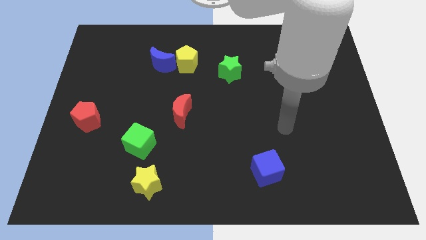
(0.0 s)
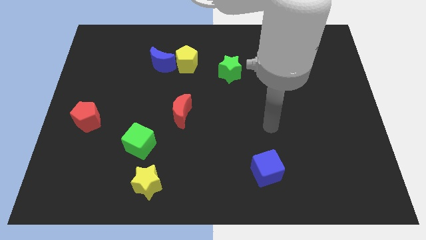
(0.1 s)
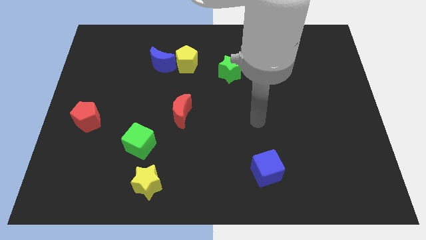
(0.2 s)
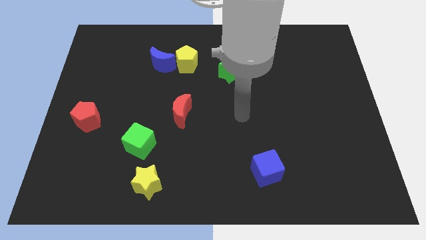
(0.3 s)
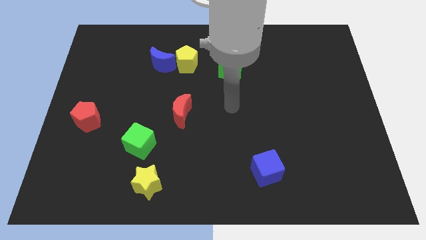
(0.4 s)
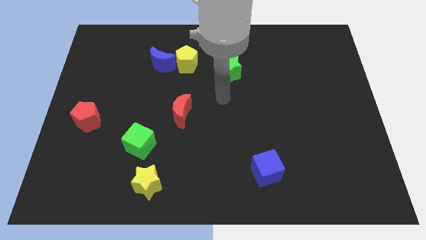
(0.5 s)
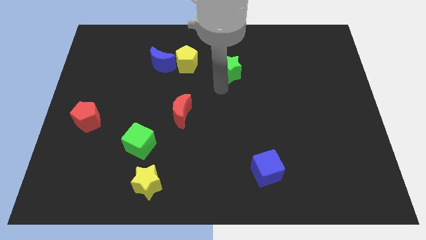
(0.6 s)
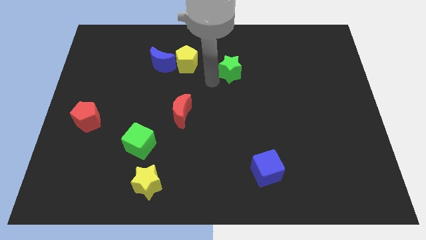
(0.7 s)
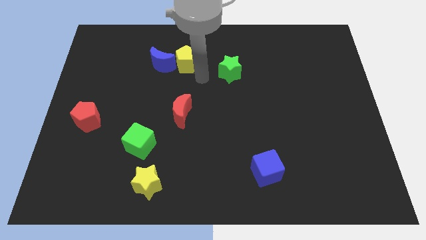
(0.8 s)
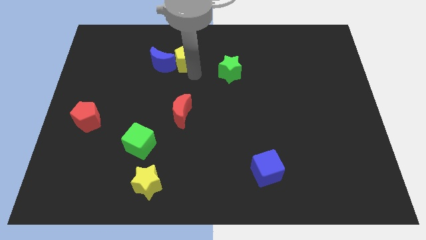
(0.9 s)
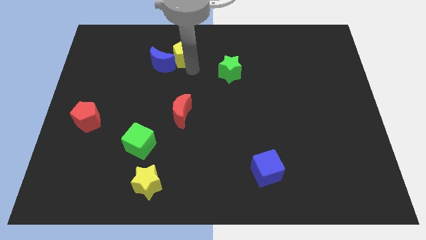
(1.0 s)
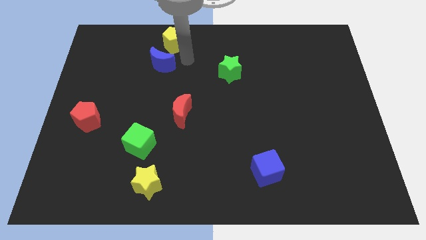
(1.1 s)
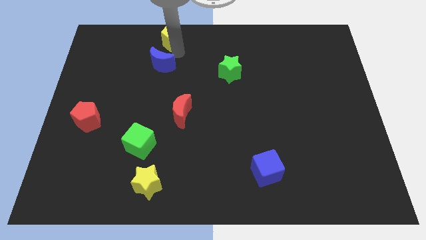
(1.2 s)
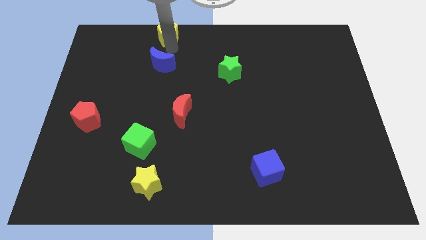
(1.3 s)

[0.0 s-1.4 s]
pull the blue moon apart from the yellow pentagon

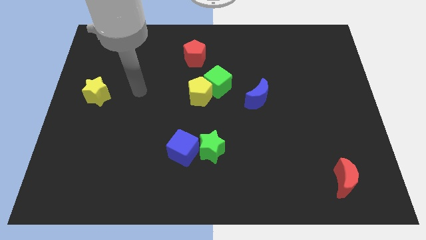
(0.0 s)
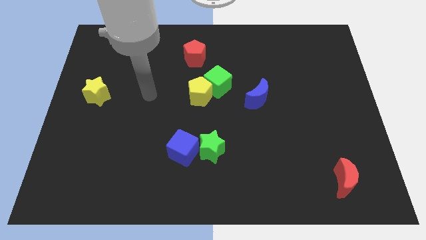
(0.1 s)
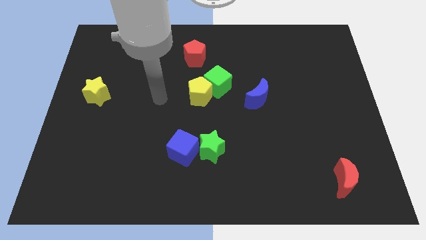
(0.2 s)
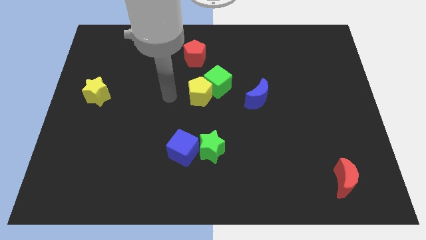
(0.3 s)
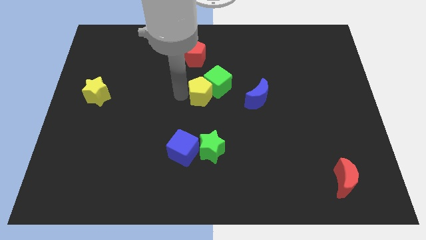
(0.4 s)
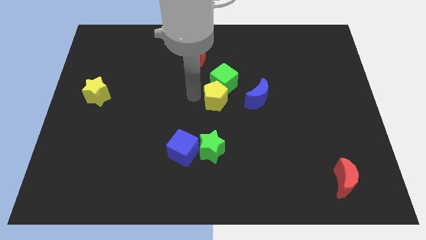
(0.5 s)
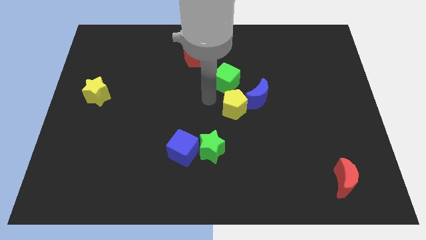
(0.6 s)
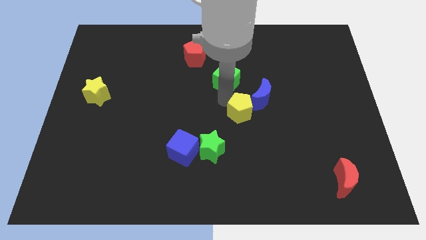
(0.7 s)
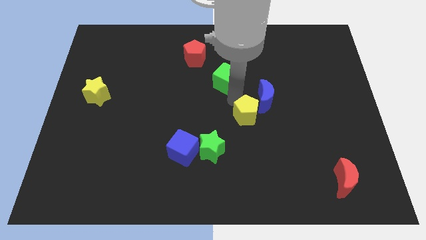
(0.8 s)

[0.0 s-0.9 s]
separate the green cube from the yellow pentagon

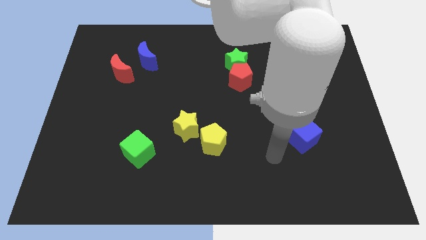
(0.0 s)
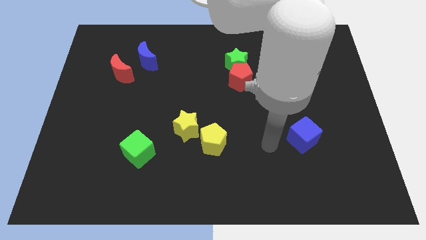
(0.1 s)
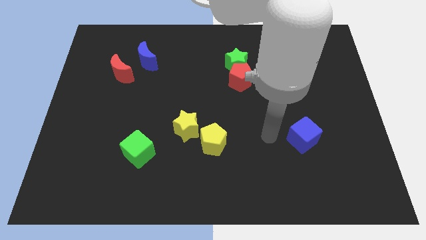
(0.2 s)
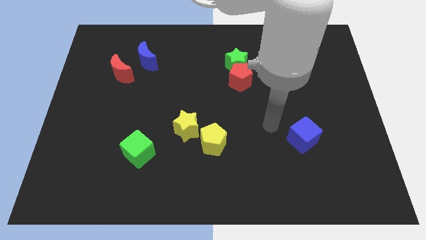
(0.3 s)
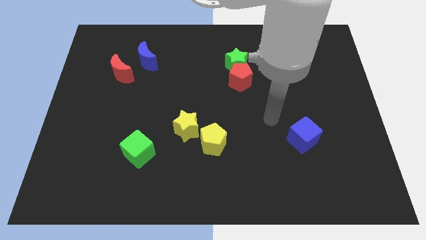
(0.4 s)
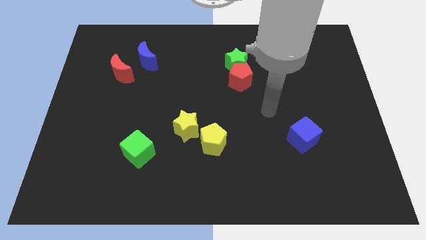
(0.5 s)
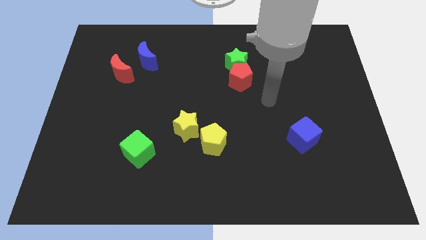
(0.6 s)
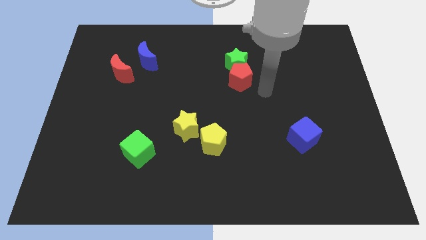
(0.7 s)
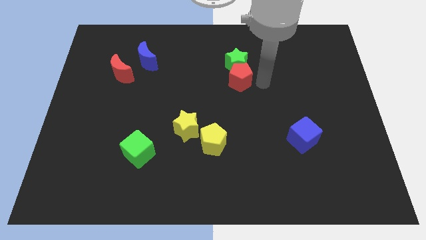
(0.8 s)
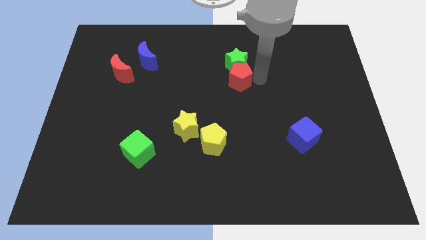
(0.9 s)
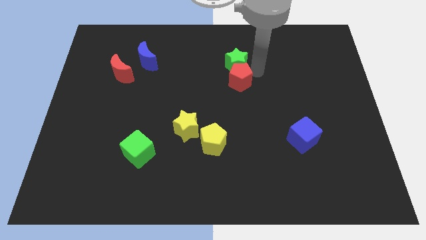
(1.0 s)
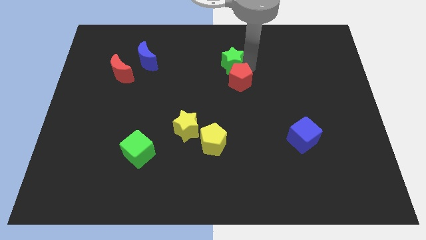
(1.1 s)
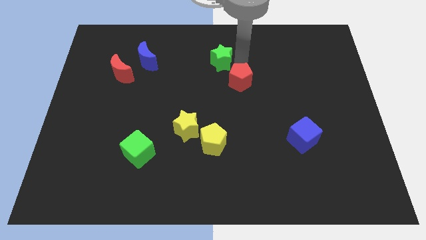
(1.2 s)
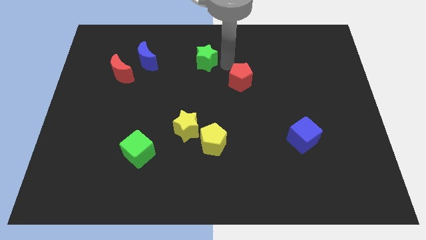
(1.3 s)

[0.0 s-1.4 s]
separate the red pentagon from the green star

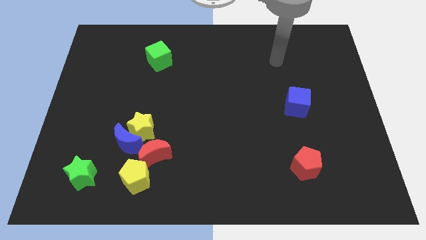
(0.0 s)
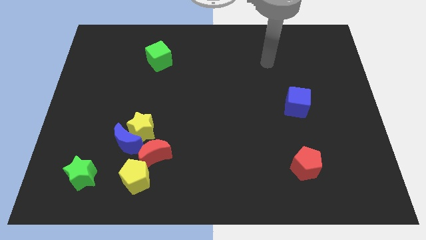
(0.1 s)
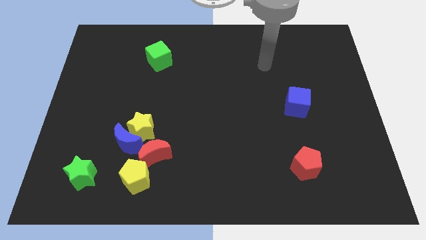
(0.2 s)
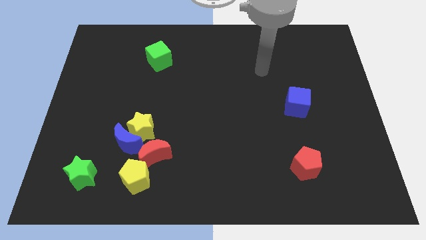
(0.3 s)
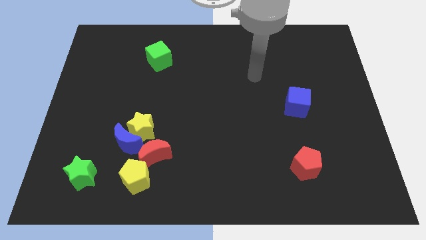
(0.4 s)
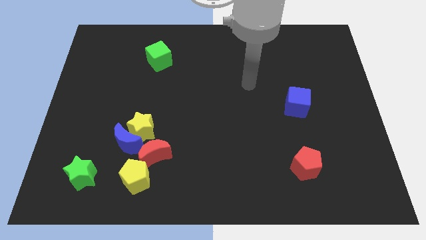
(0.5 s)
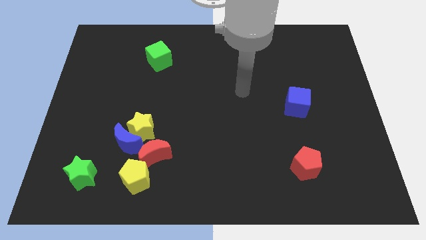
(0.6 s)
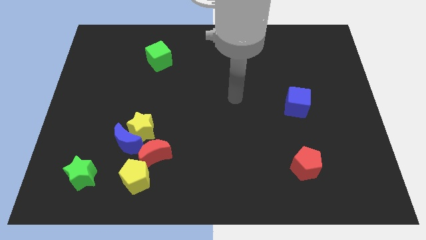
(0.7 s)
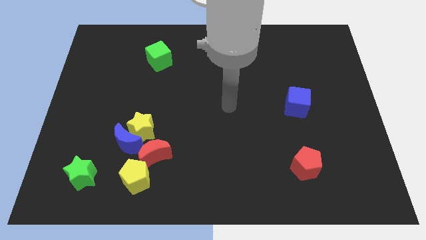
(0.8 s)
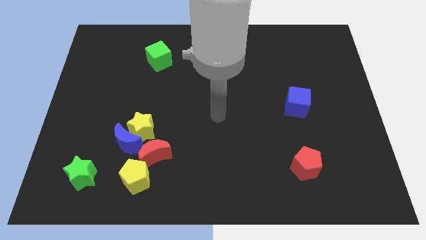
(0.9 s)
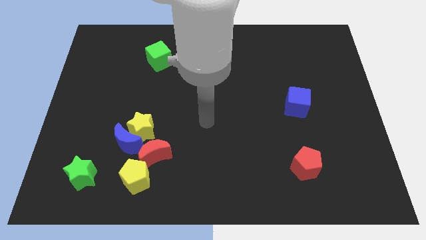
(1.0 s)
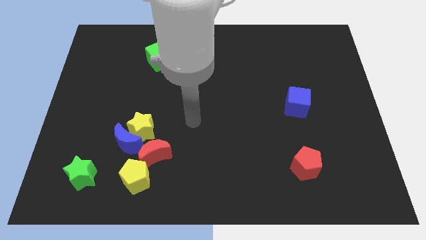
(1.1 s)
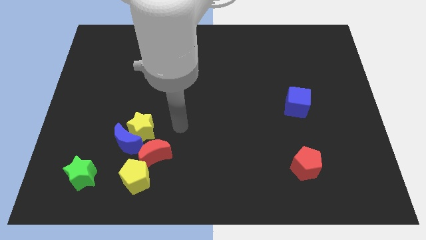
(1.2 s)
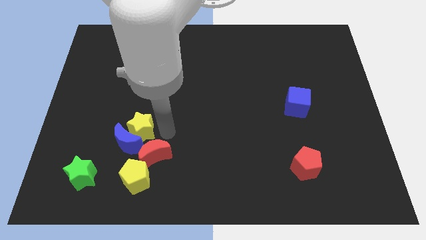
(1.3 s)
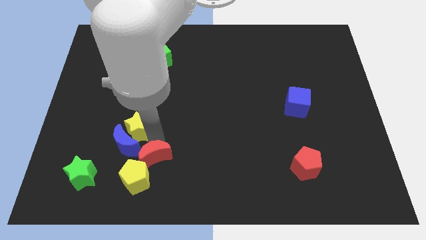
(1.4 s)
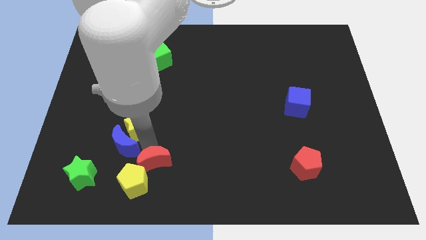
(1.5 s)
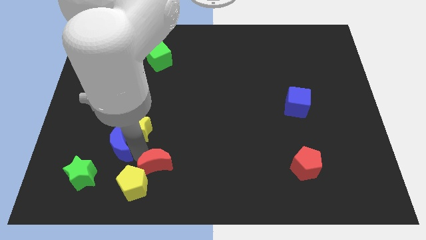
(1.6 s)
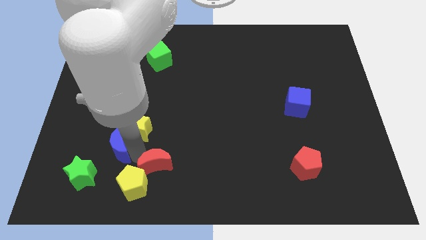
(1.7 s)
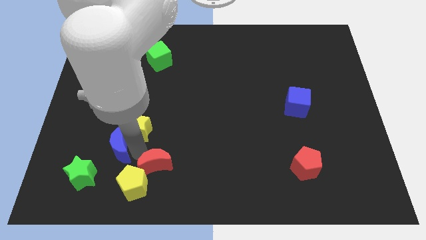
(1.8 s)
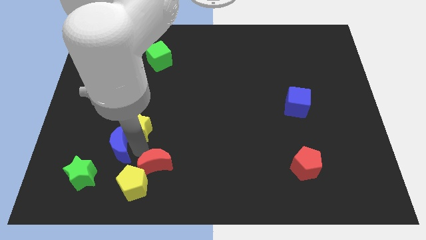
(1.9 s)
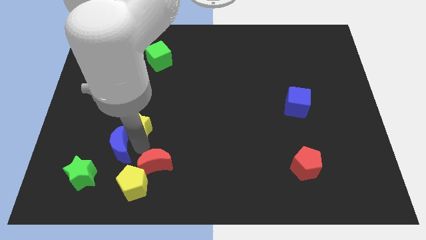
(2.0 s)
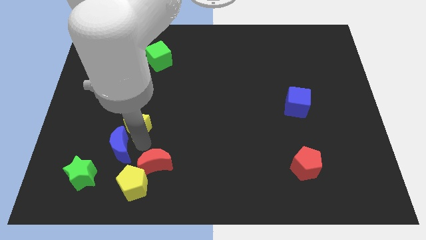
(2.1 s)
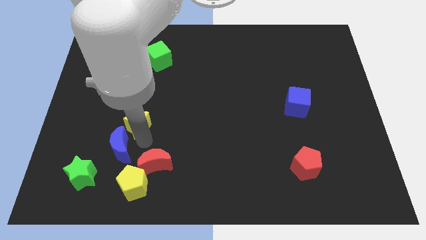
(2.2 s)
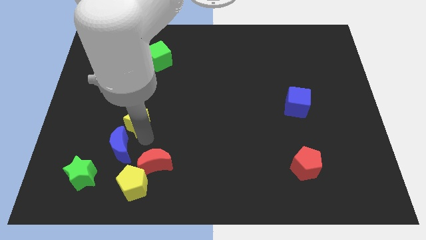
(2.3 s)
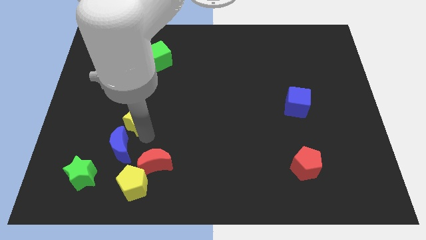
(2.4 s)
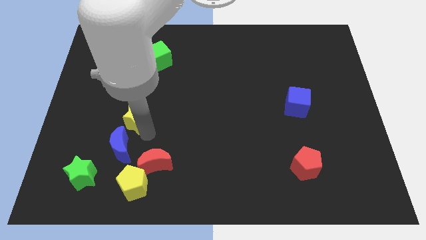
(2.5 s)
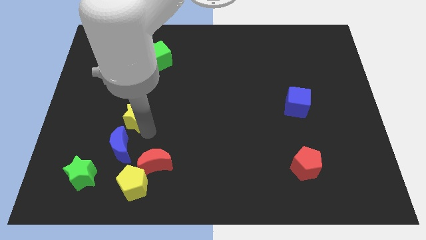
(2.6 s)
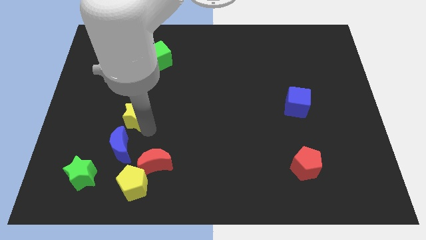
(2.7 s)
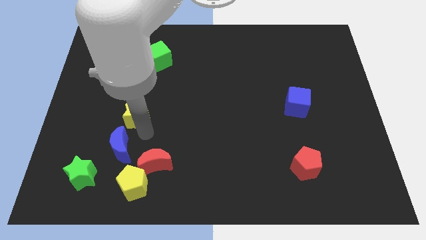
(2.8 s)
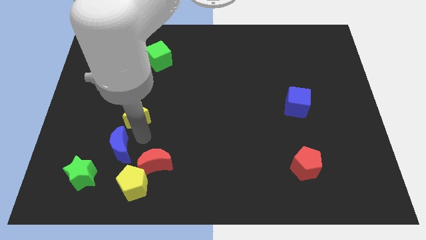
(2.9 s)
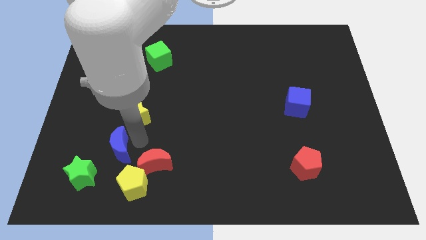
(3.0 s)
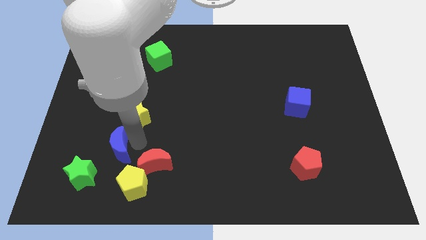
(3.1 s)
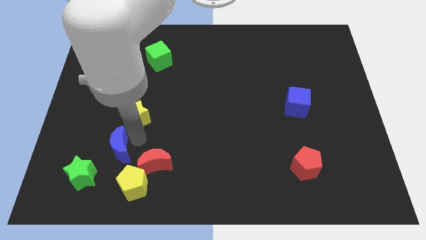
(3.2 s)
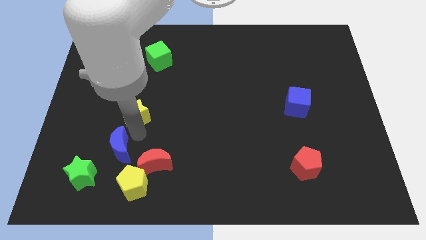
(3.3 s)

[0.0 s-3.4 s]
move the yellow star away from the blue moon and red moon

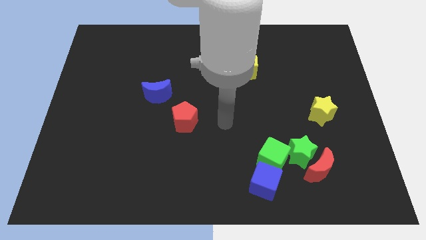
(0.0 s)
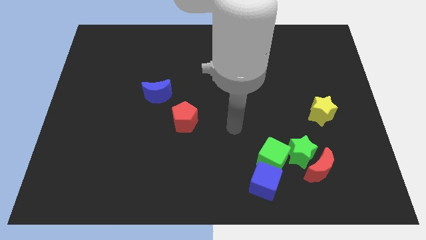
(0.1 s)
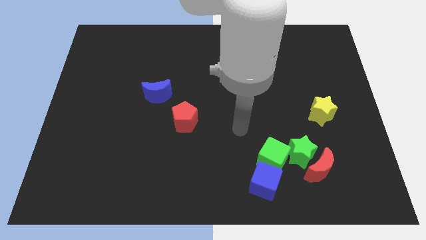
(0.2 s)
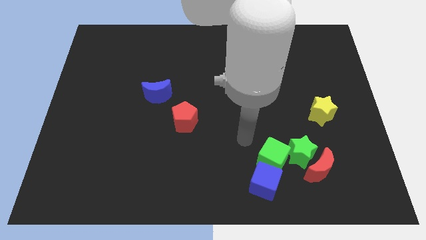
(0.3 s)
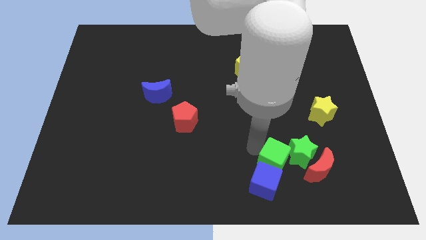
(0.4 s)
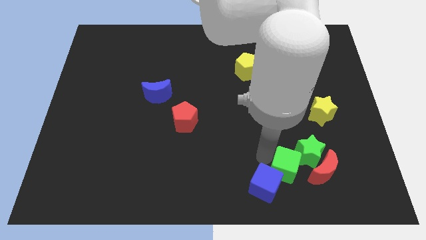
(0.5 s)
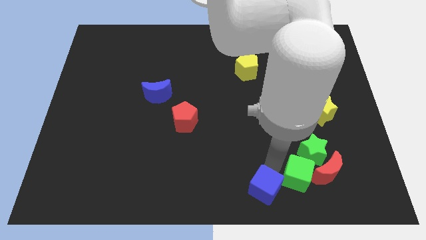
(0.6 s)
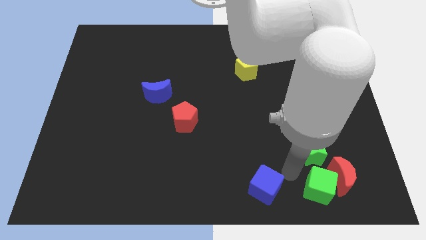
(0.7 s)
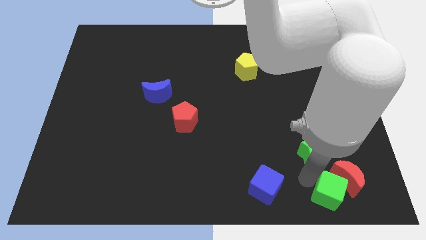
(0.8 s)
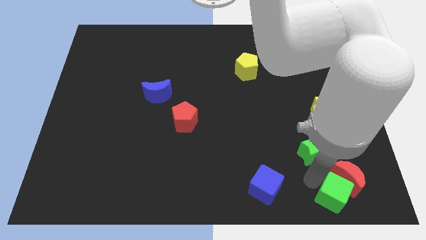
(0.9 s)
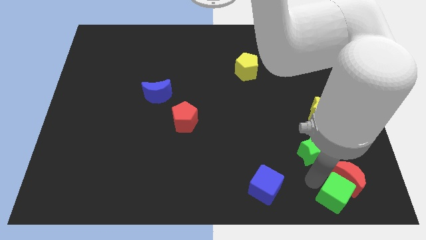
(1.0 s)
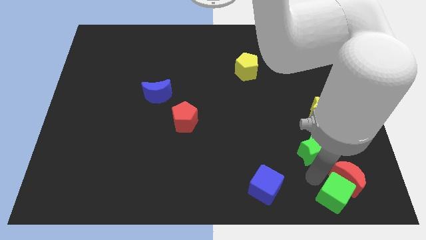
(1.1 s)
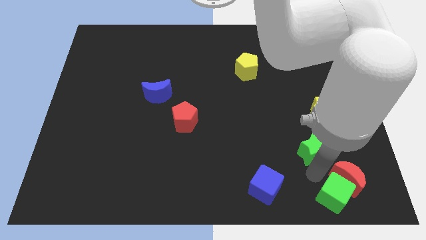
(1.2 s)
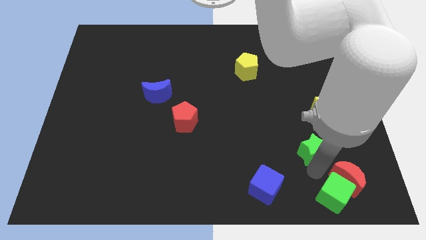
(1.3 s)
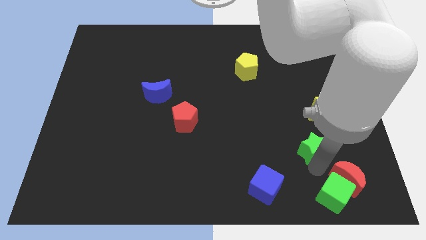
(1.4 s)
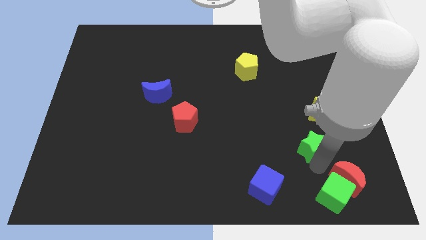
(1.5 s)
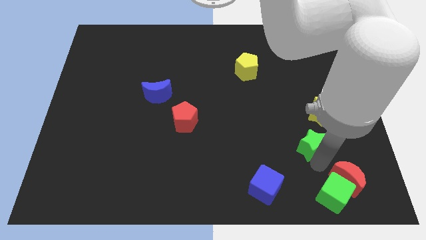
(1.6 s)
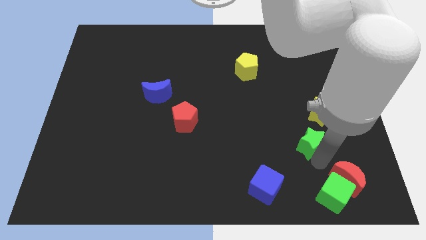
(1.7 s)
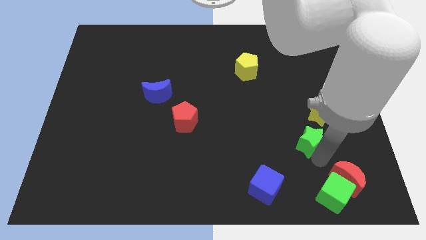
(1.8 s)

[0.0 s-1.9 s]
pull the green star apart from the red moon, green cube, and blue cube

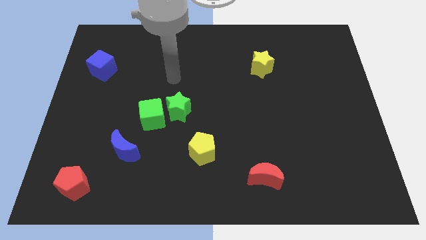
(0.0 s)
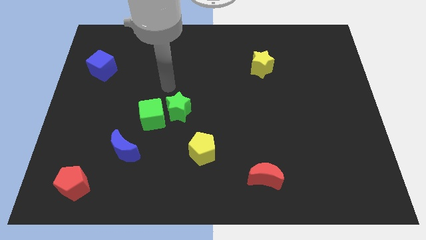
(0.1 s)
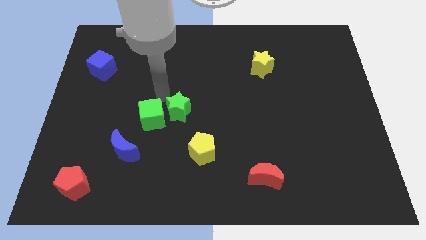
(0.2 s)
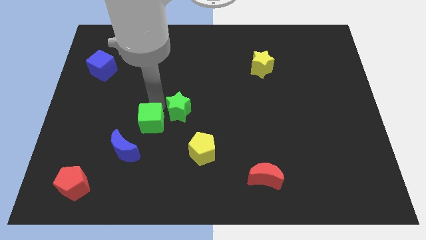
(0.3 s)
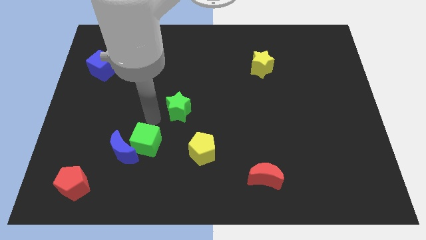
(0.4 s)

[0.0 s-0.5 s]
move the green star away from the green cube
